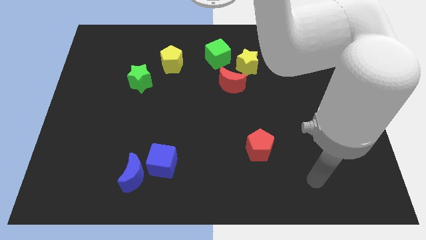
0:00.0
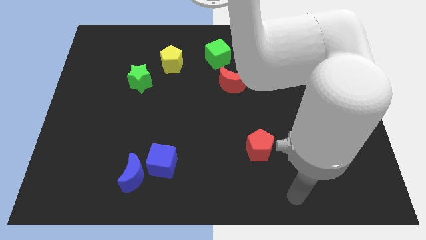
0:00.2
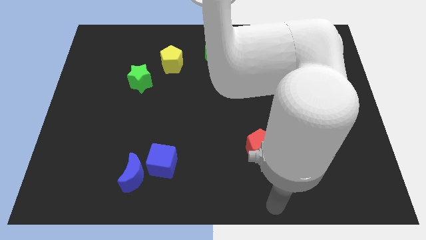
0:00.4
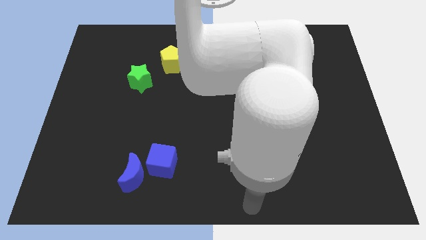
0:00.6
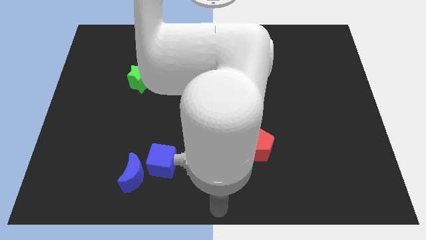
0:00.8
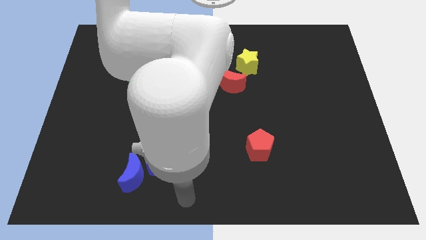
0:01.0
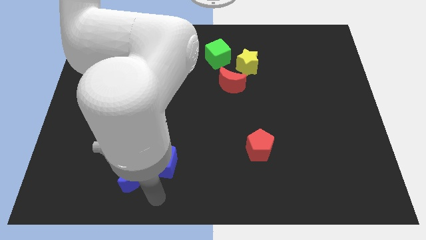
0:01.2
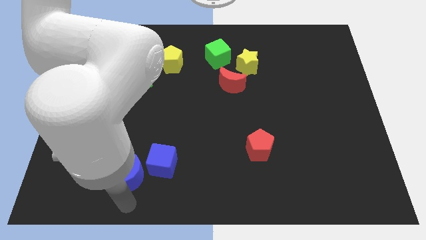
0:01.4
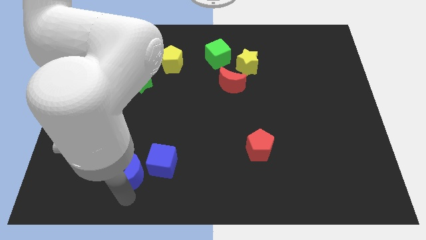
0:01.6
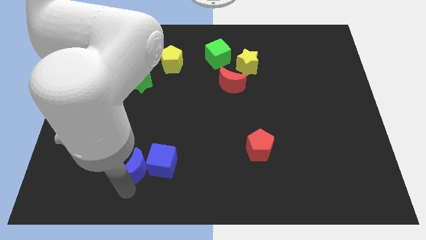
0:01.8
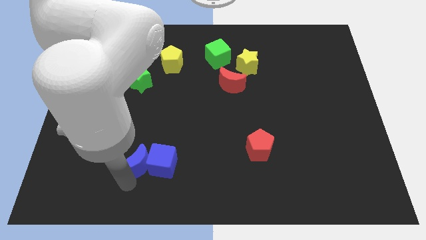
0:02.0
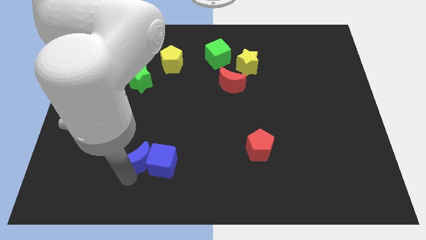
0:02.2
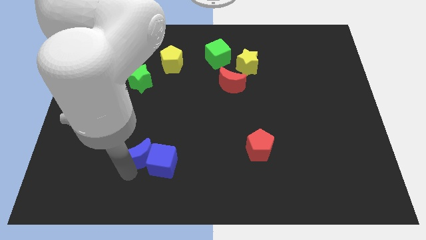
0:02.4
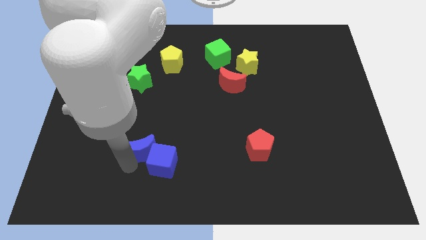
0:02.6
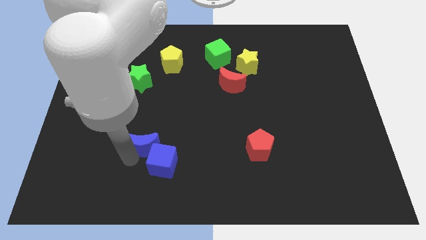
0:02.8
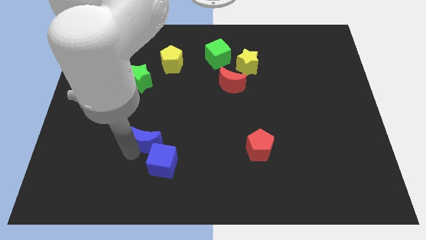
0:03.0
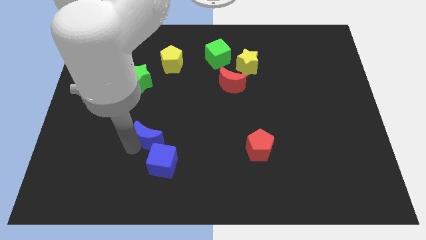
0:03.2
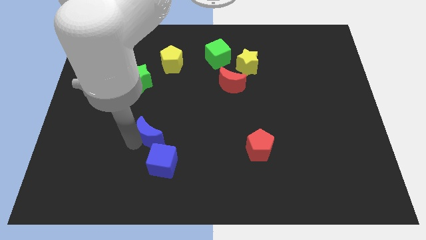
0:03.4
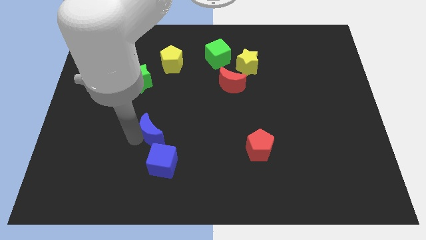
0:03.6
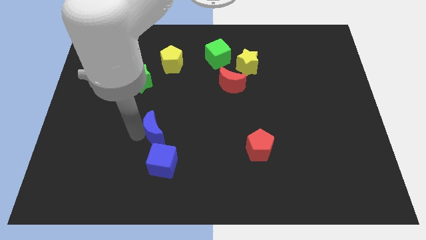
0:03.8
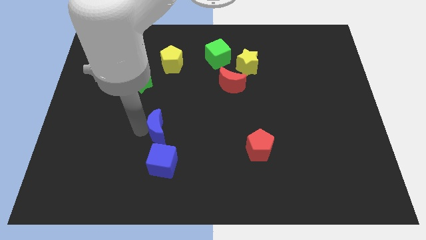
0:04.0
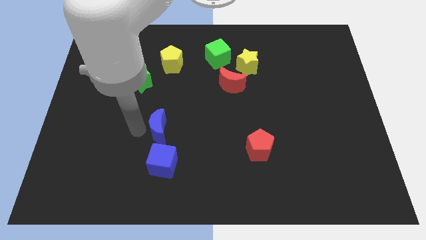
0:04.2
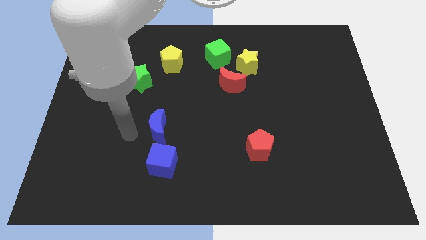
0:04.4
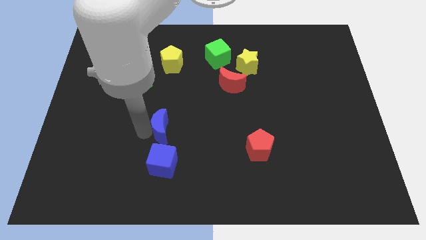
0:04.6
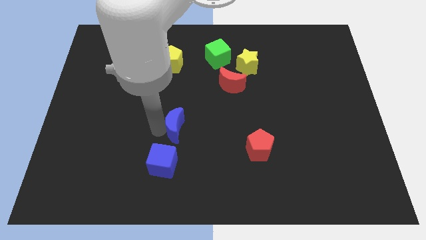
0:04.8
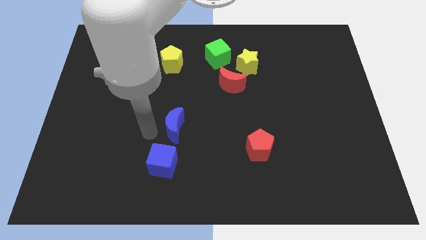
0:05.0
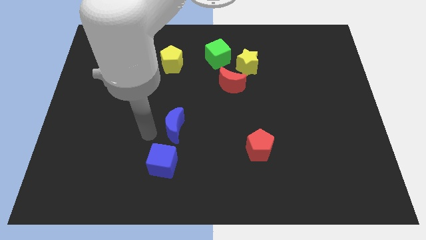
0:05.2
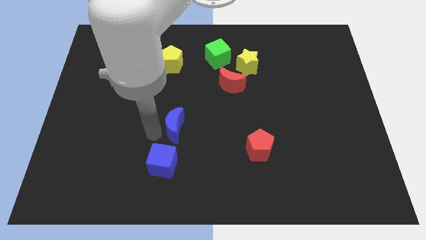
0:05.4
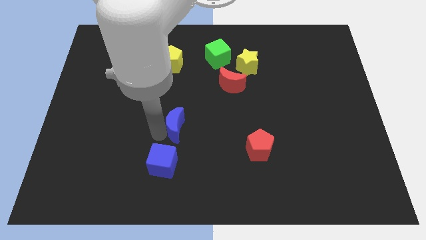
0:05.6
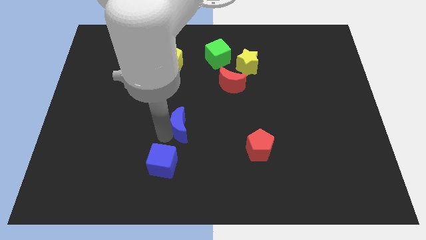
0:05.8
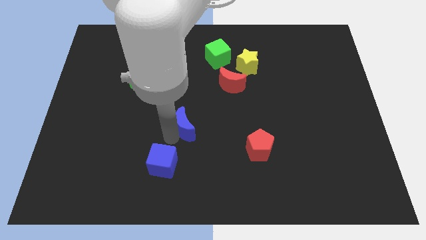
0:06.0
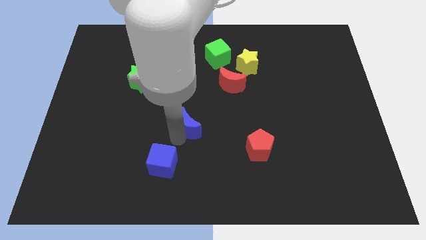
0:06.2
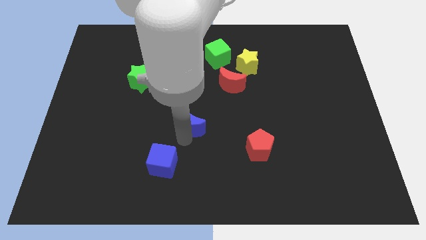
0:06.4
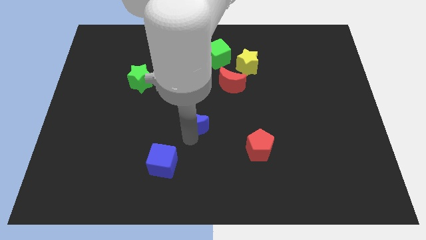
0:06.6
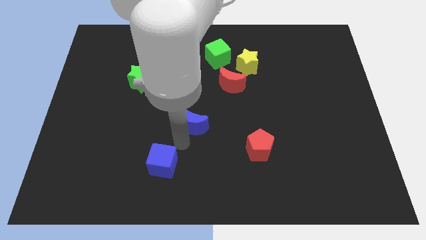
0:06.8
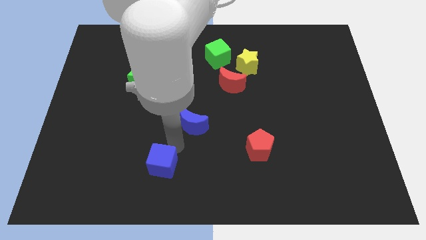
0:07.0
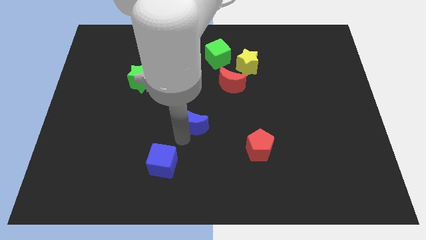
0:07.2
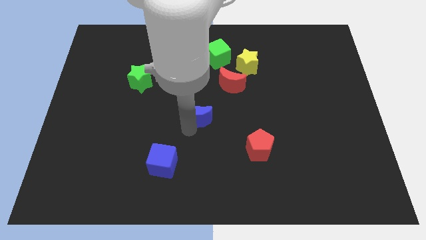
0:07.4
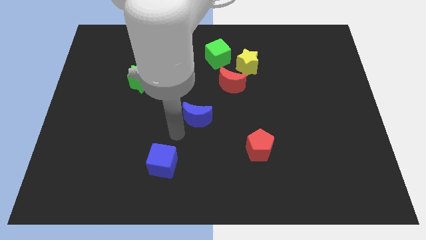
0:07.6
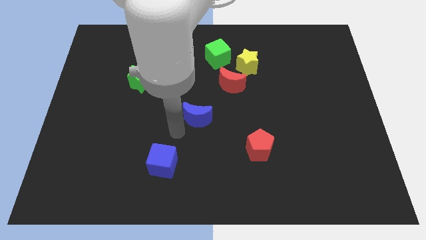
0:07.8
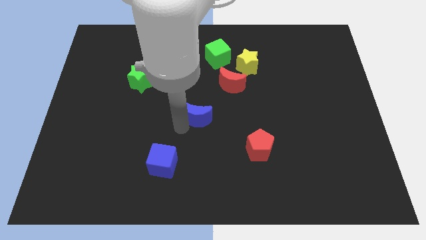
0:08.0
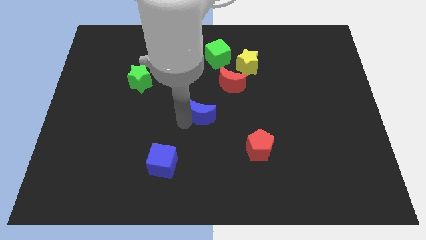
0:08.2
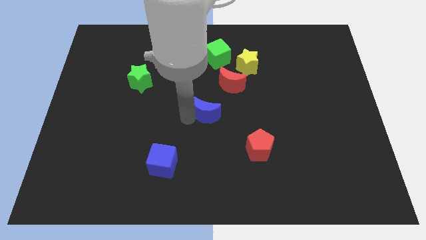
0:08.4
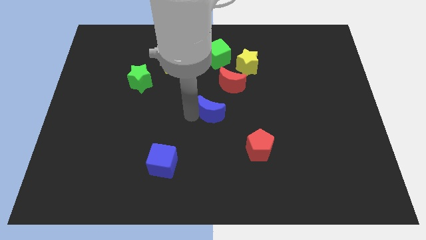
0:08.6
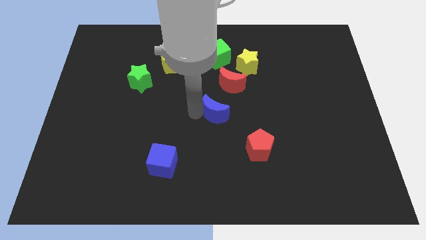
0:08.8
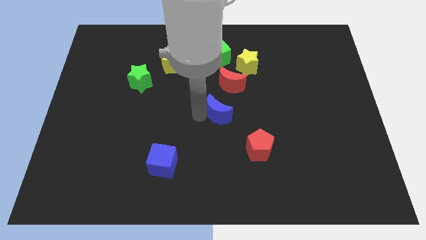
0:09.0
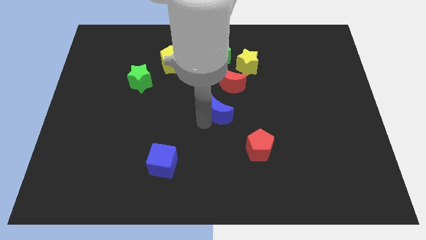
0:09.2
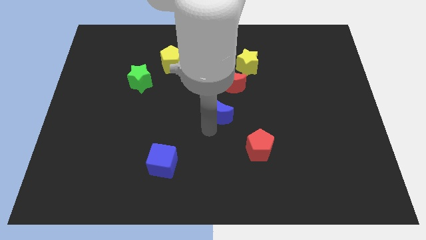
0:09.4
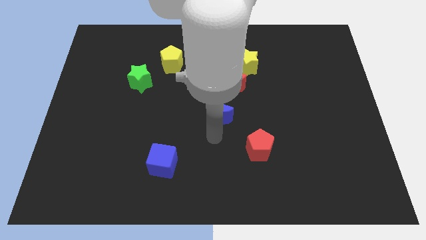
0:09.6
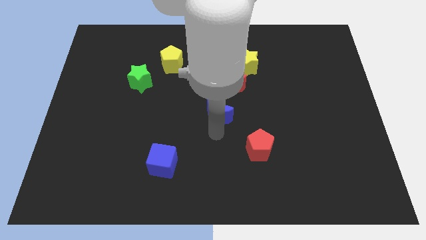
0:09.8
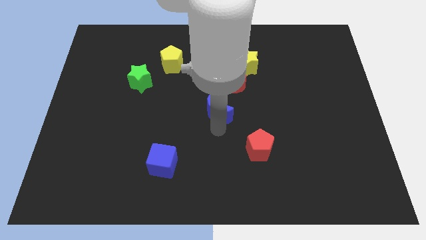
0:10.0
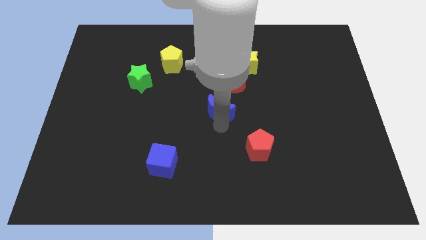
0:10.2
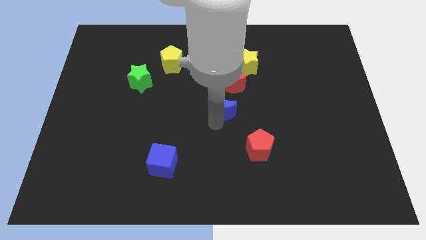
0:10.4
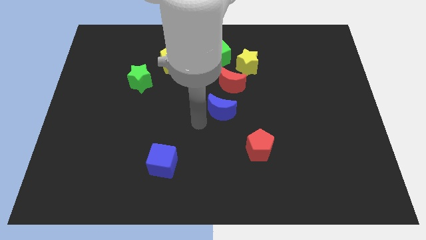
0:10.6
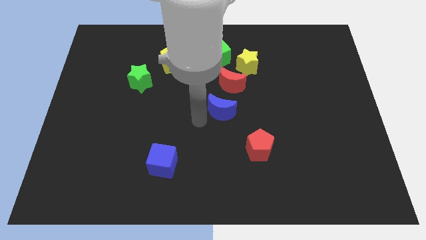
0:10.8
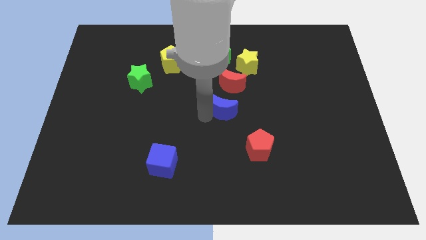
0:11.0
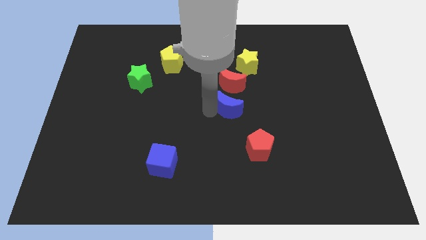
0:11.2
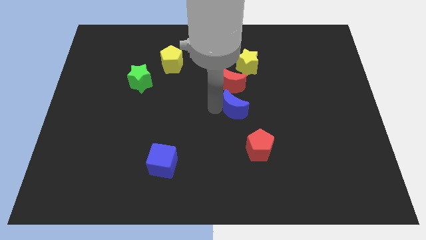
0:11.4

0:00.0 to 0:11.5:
push the blue moon to the bottom side of the yellow star

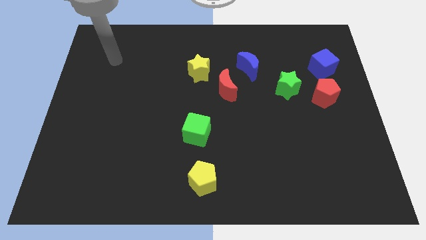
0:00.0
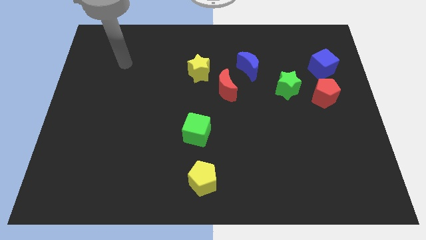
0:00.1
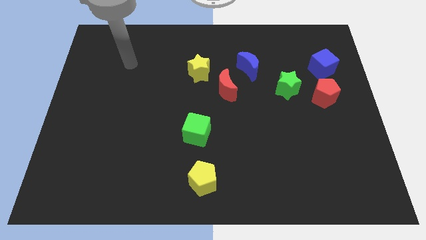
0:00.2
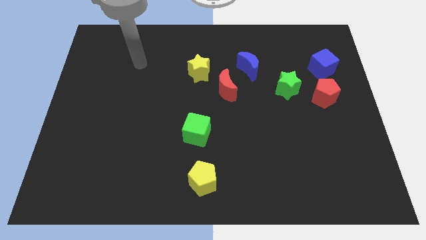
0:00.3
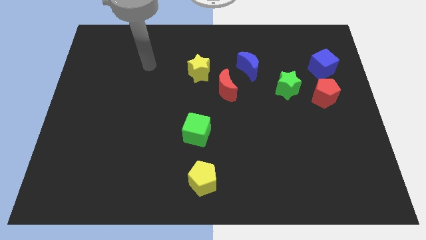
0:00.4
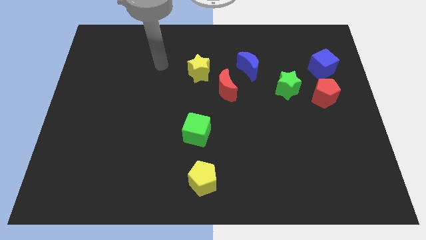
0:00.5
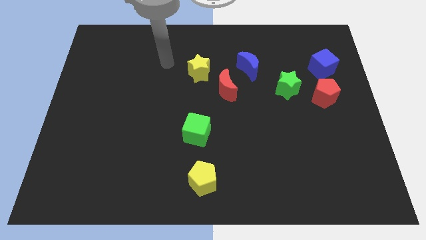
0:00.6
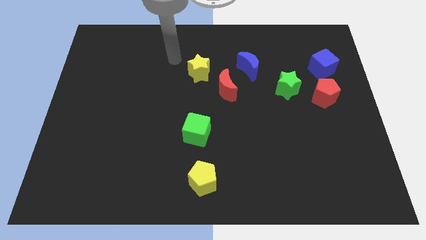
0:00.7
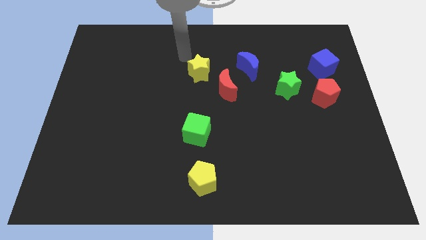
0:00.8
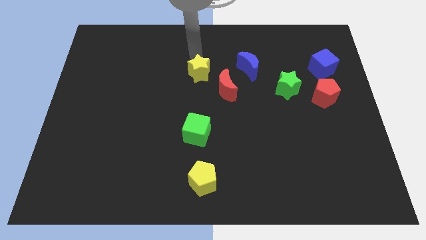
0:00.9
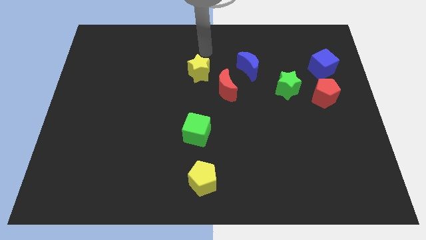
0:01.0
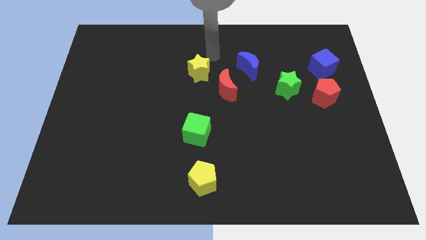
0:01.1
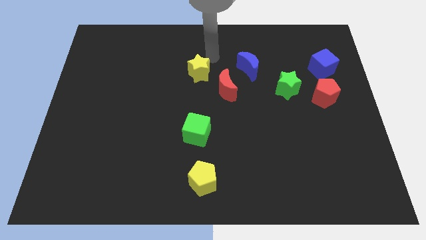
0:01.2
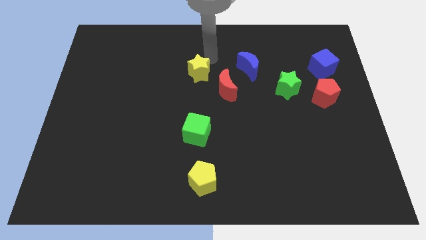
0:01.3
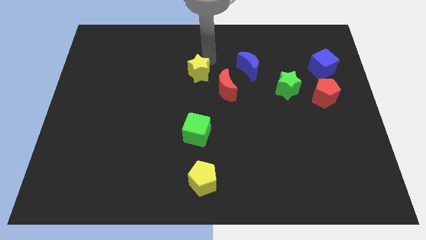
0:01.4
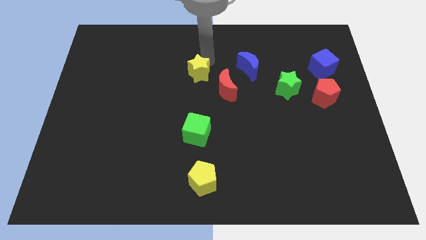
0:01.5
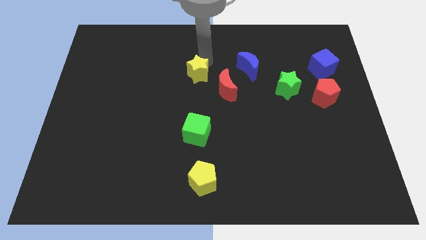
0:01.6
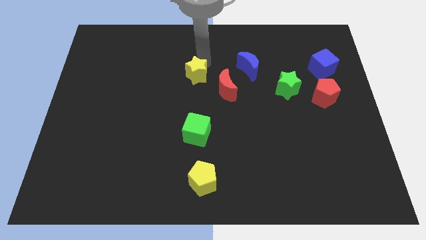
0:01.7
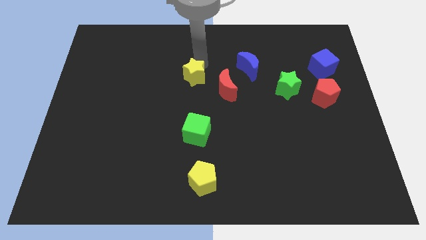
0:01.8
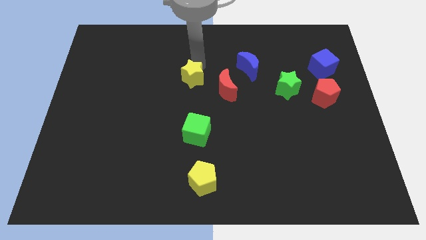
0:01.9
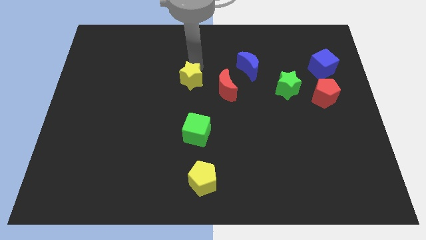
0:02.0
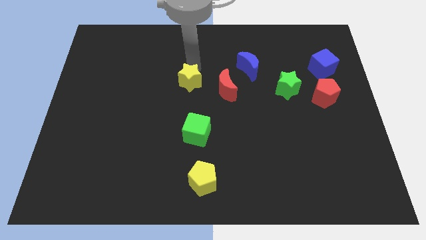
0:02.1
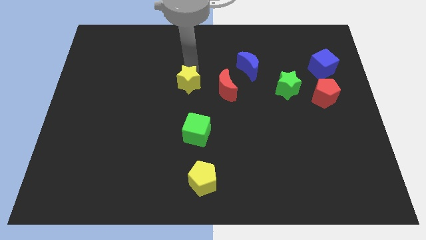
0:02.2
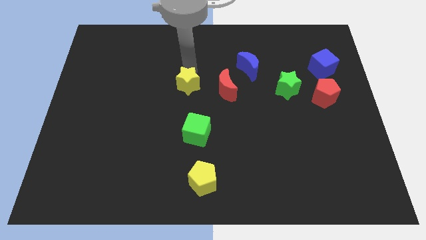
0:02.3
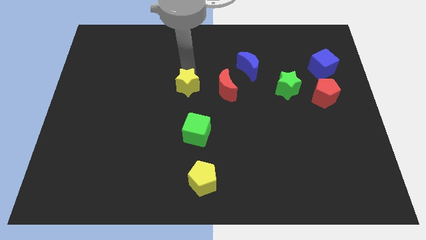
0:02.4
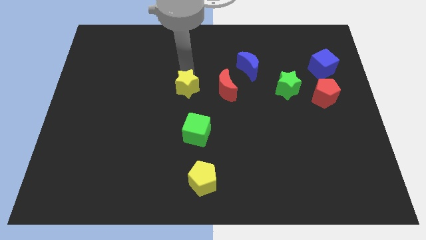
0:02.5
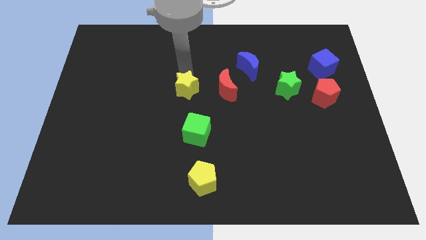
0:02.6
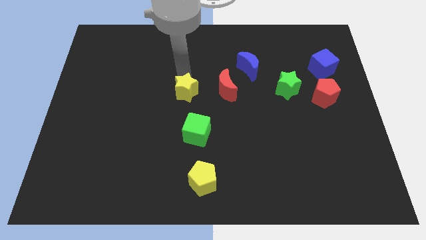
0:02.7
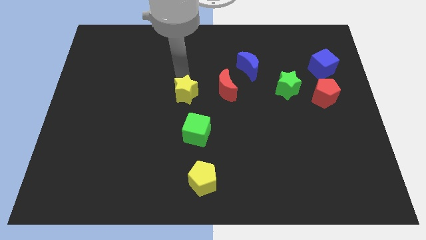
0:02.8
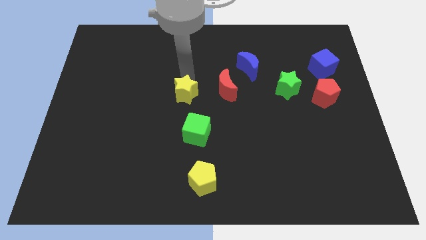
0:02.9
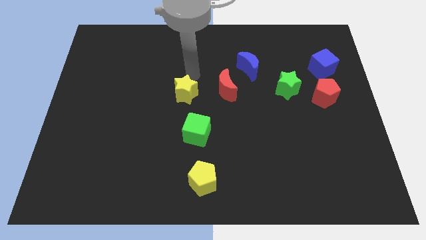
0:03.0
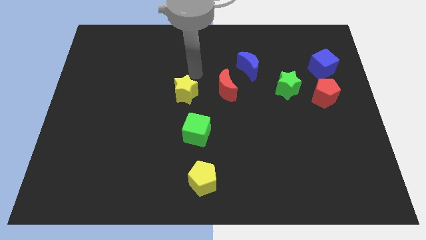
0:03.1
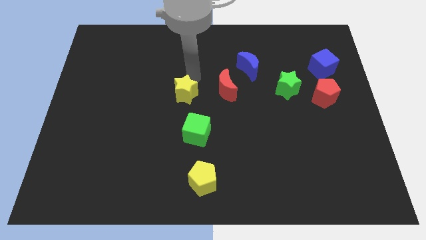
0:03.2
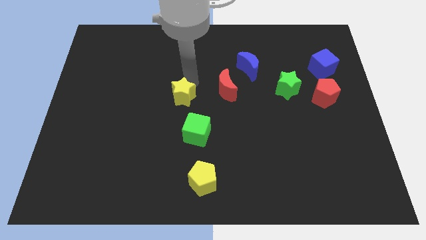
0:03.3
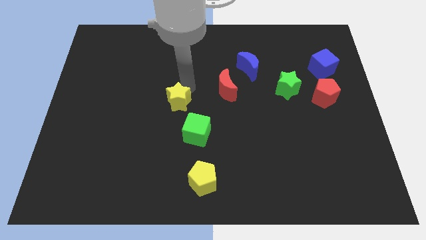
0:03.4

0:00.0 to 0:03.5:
move the yellow star diagonally up and to the left of the green cube
